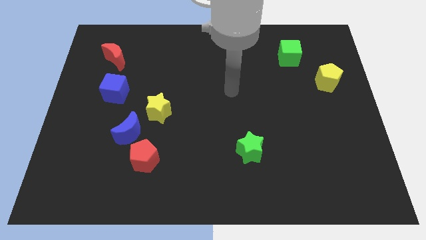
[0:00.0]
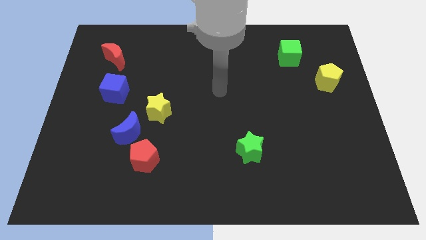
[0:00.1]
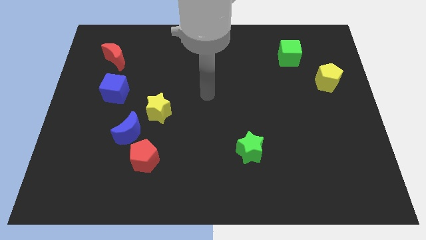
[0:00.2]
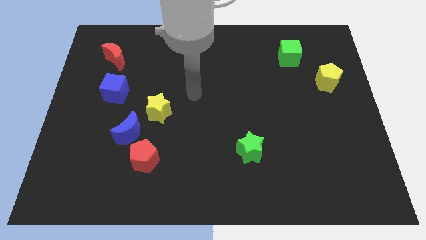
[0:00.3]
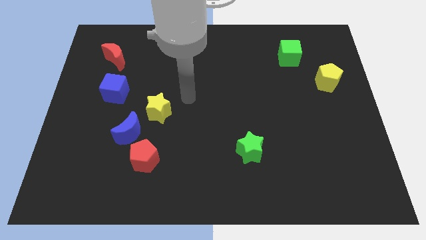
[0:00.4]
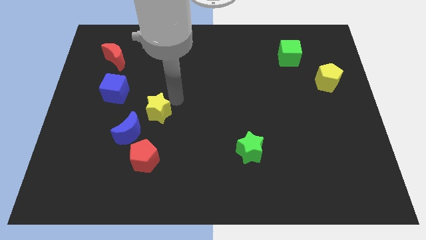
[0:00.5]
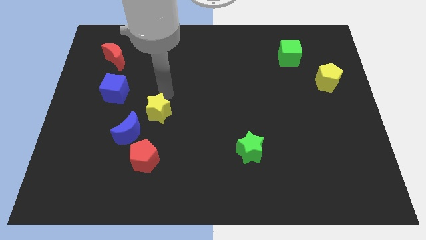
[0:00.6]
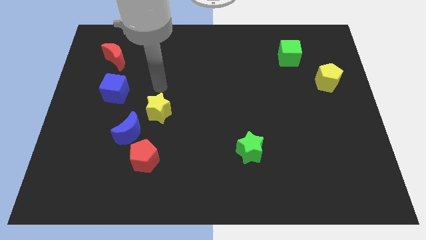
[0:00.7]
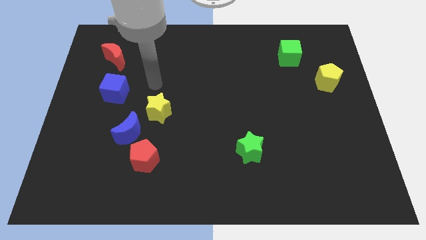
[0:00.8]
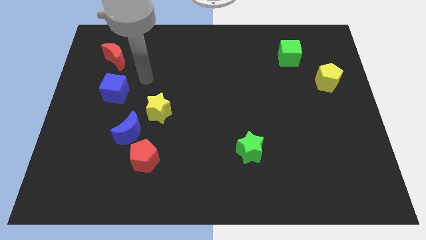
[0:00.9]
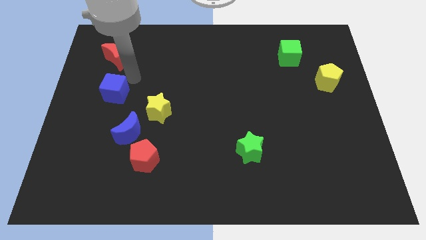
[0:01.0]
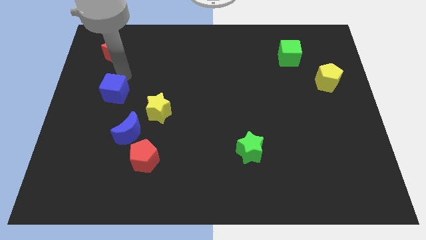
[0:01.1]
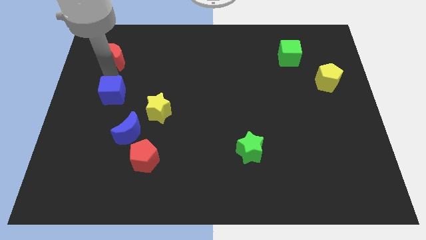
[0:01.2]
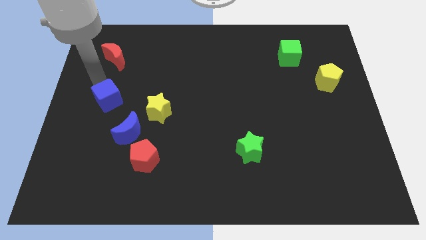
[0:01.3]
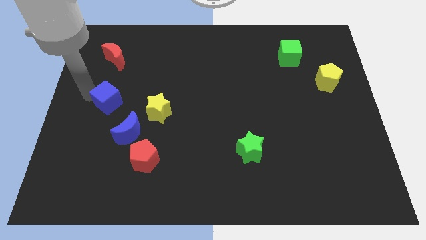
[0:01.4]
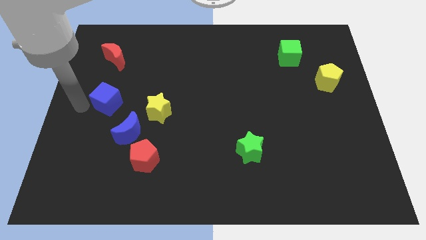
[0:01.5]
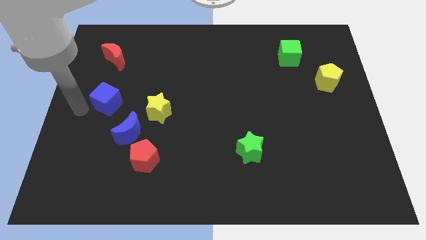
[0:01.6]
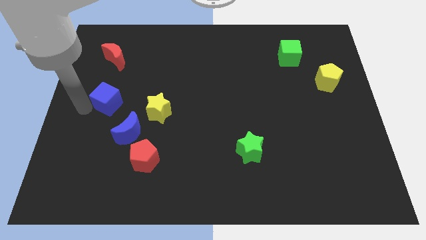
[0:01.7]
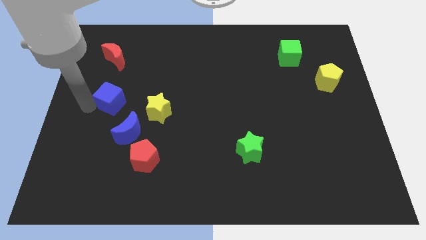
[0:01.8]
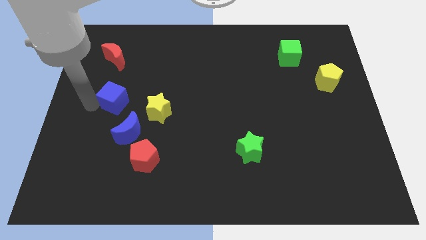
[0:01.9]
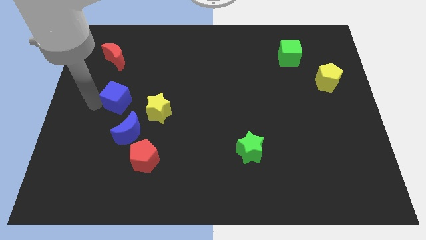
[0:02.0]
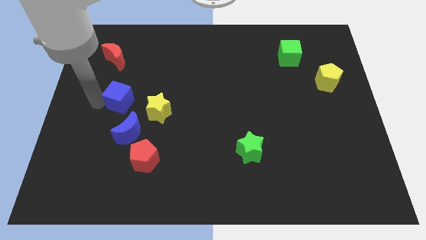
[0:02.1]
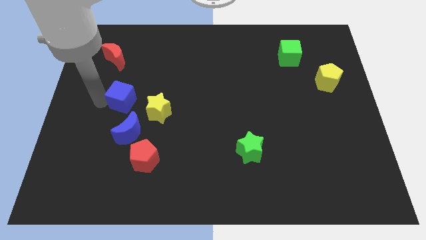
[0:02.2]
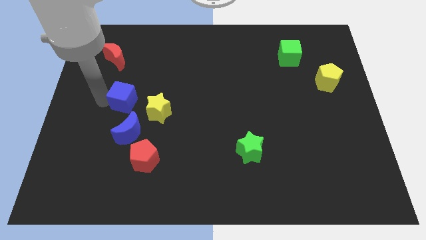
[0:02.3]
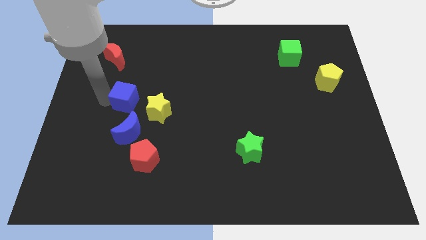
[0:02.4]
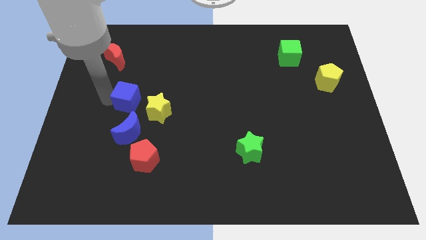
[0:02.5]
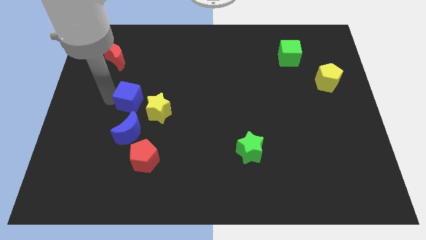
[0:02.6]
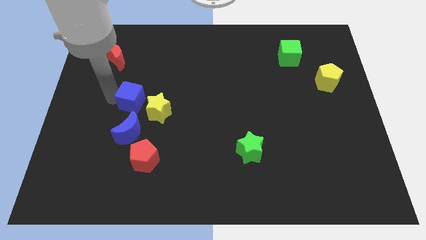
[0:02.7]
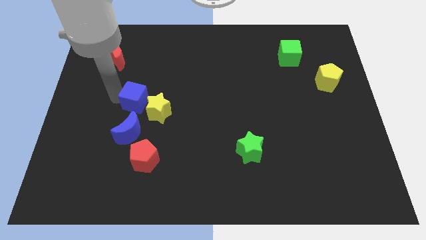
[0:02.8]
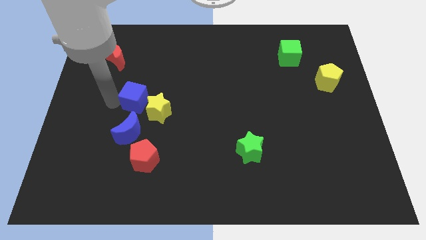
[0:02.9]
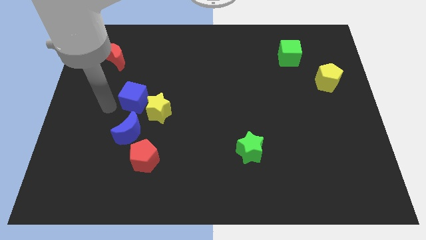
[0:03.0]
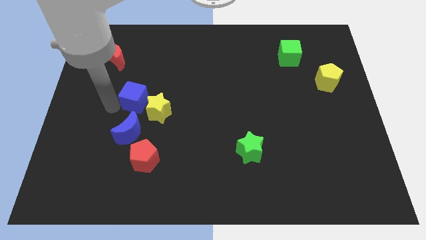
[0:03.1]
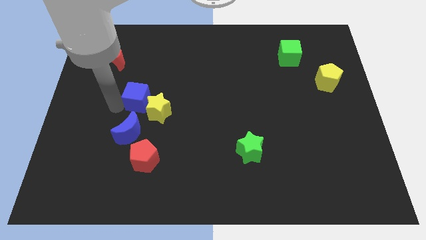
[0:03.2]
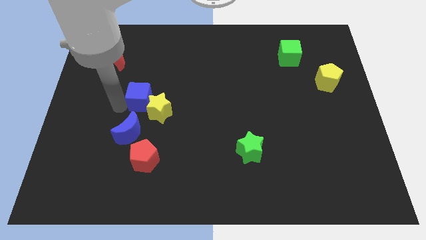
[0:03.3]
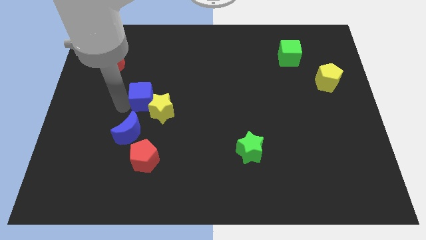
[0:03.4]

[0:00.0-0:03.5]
slide the blue cube a bit right

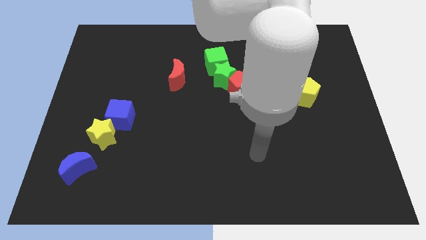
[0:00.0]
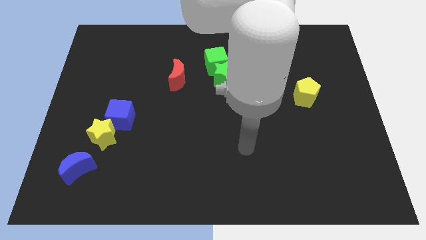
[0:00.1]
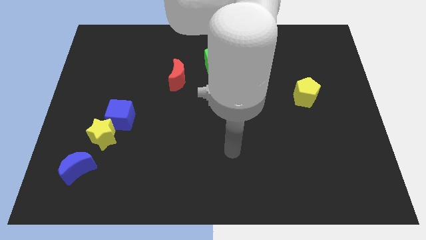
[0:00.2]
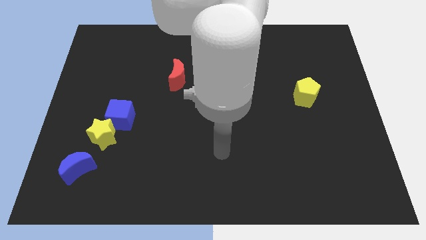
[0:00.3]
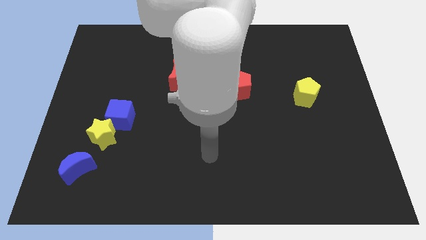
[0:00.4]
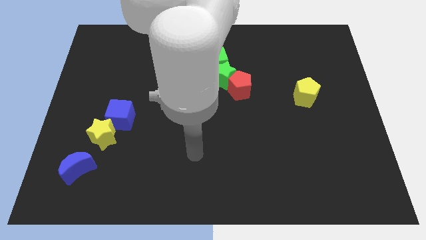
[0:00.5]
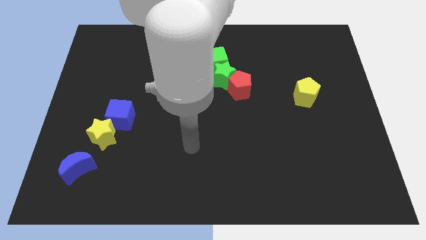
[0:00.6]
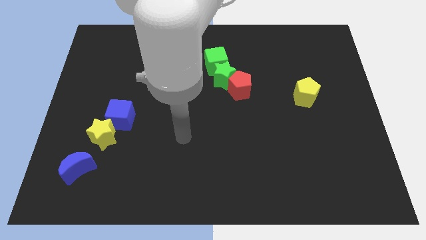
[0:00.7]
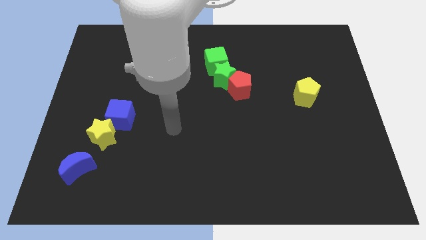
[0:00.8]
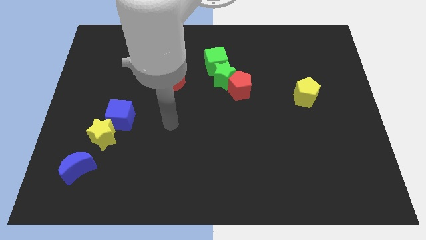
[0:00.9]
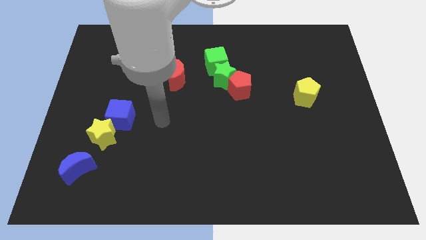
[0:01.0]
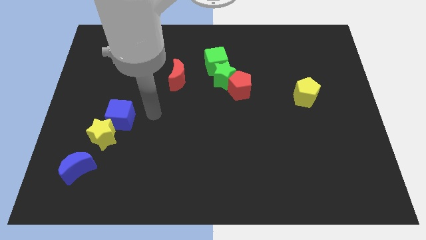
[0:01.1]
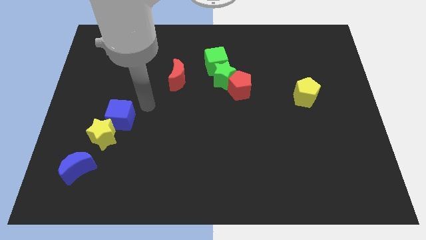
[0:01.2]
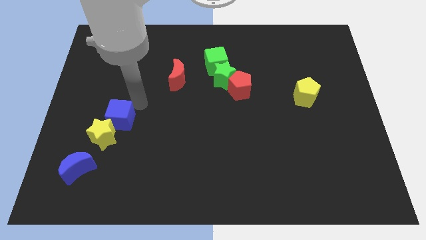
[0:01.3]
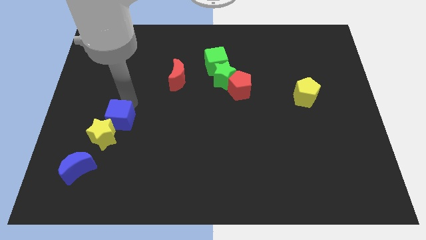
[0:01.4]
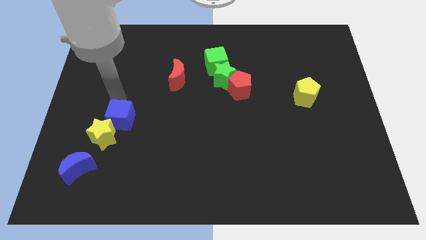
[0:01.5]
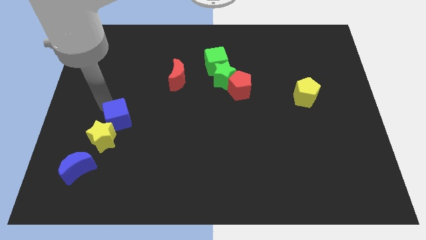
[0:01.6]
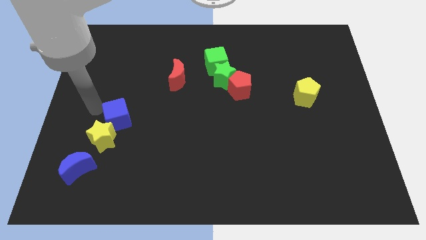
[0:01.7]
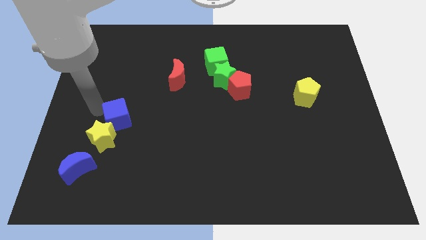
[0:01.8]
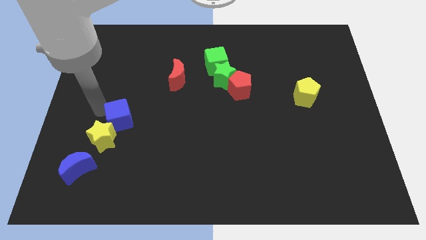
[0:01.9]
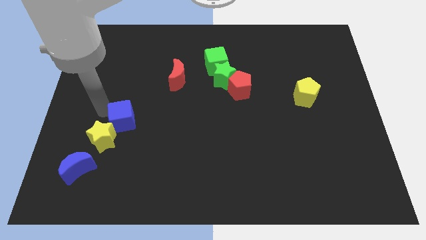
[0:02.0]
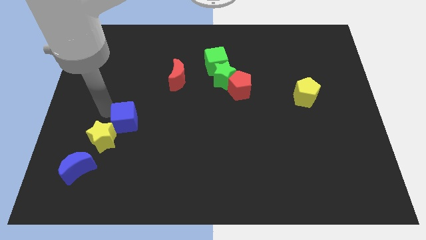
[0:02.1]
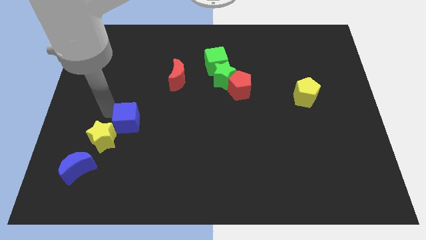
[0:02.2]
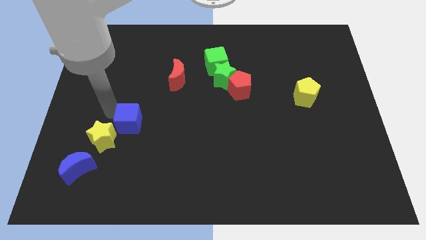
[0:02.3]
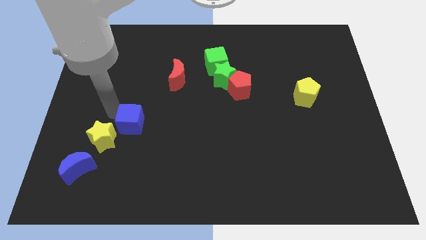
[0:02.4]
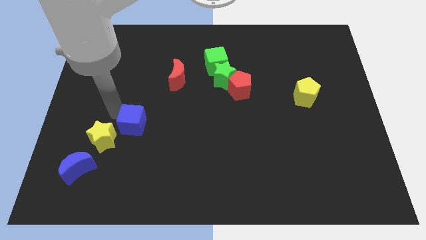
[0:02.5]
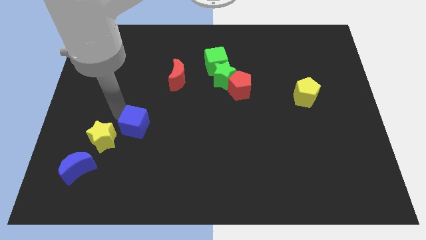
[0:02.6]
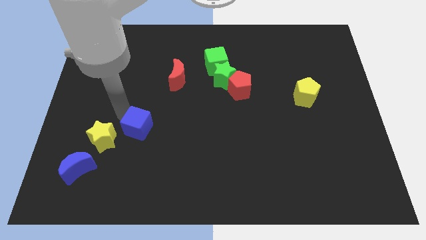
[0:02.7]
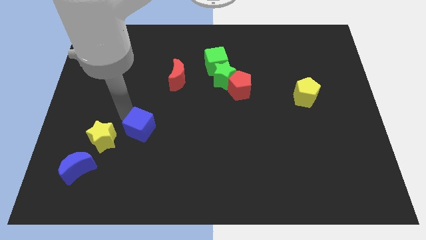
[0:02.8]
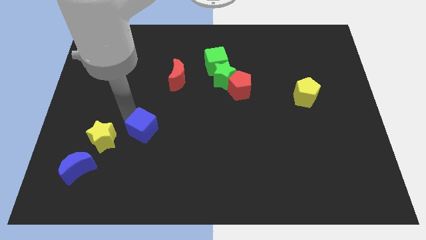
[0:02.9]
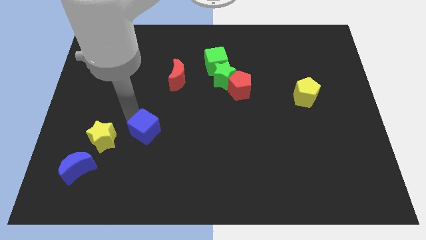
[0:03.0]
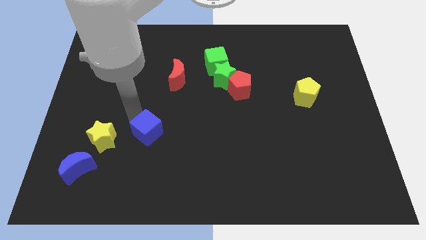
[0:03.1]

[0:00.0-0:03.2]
move the blue cube diagonally down and right slightly

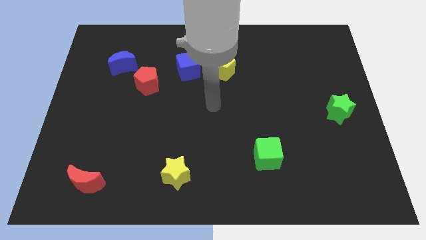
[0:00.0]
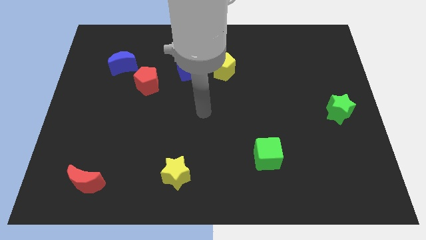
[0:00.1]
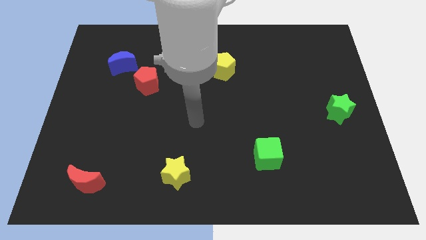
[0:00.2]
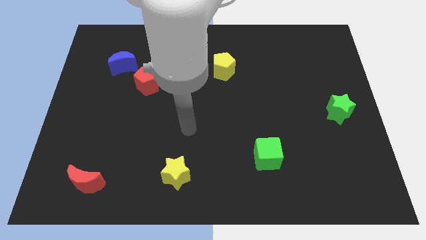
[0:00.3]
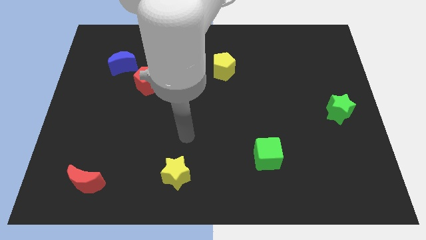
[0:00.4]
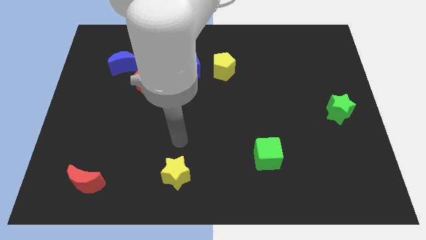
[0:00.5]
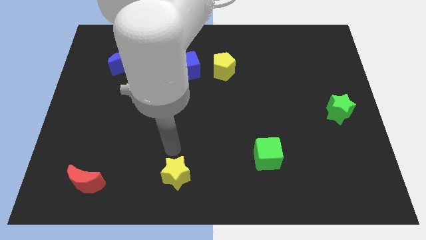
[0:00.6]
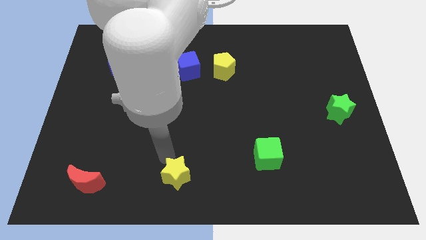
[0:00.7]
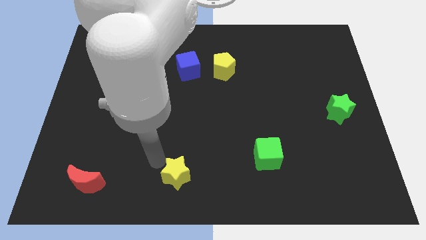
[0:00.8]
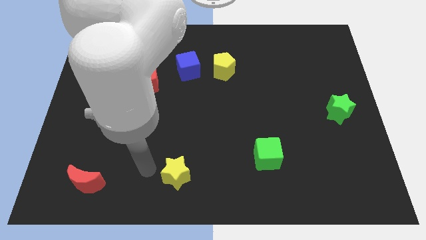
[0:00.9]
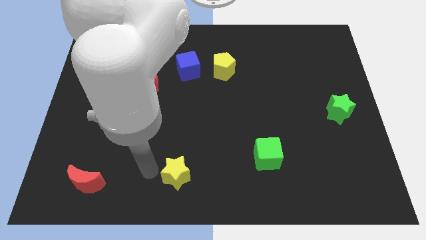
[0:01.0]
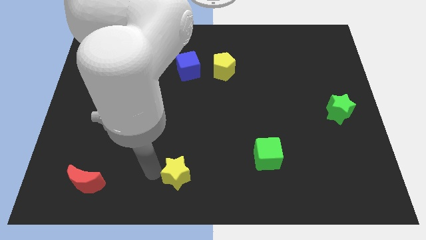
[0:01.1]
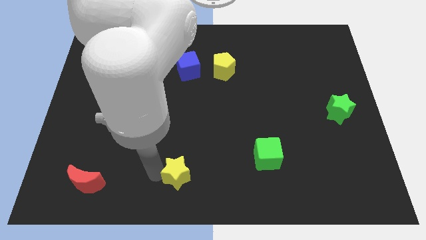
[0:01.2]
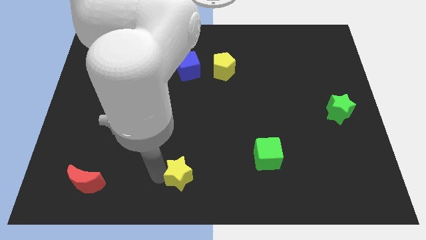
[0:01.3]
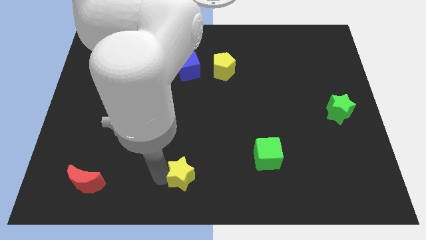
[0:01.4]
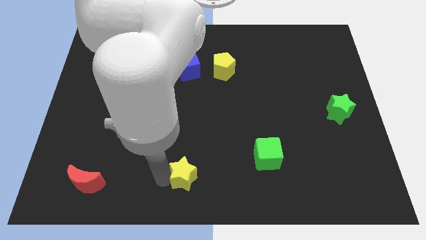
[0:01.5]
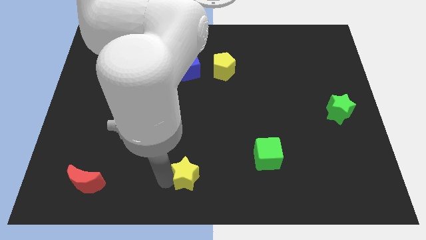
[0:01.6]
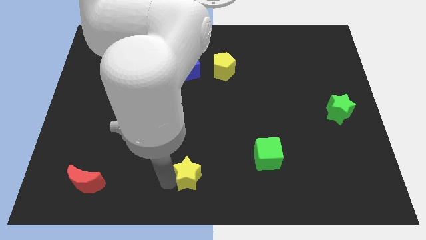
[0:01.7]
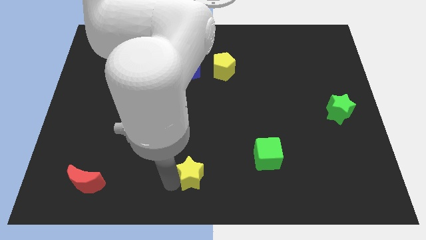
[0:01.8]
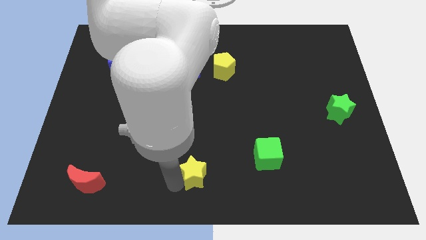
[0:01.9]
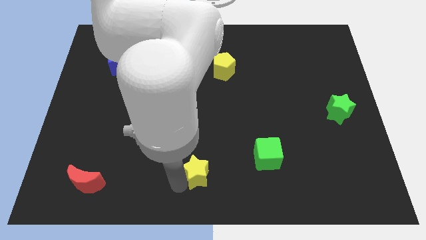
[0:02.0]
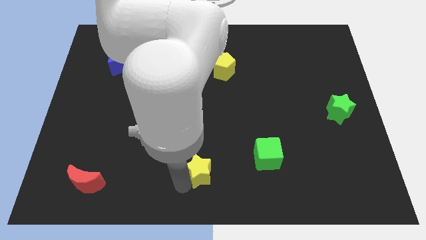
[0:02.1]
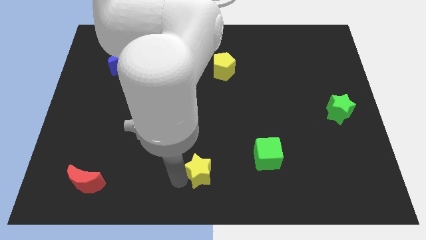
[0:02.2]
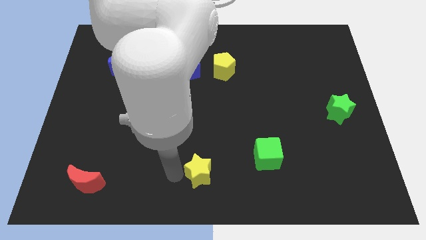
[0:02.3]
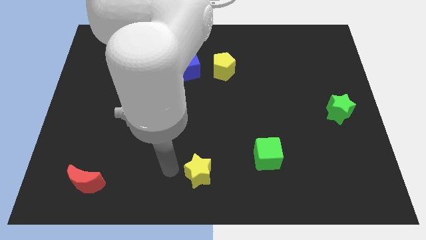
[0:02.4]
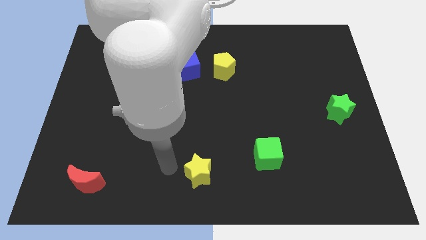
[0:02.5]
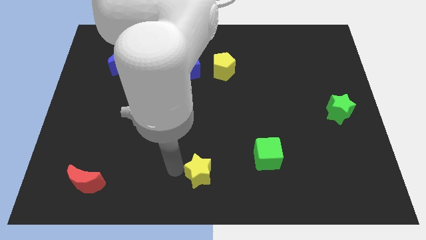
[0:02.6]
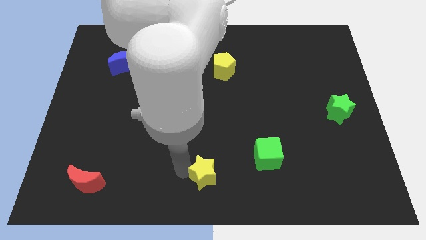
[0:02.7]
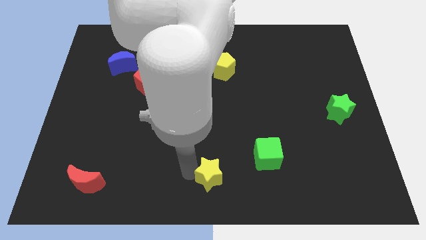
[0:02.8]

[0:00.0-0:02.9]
push the yellow star a bit right
